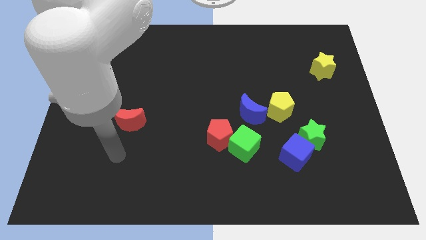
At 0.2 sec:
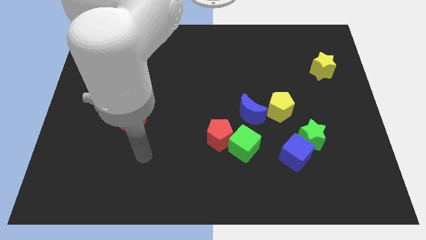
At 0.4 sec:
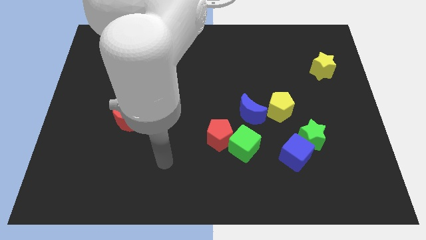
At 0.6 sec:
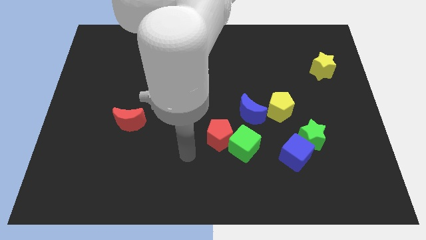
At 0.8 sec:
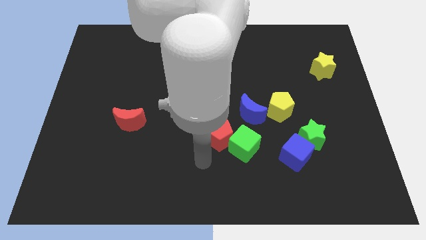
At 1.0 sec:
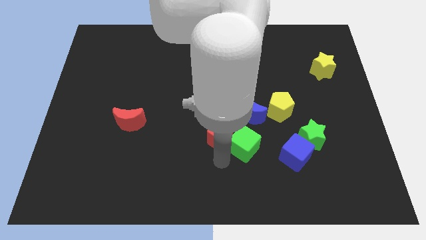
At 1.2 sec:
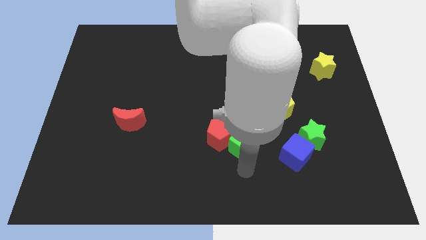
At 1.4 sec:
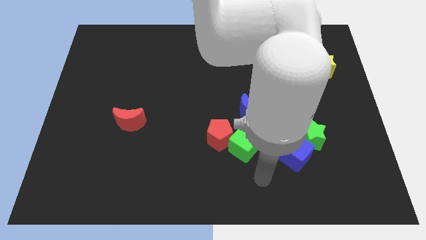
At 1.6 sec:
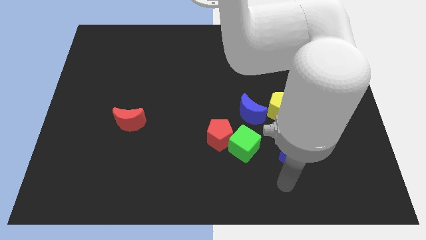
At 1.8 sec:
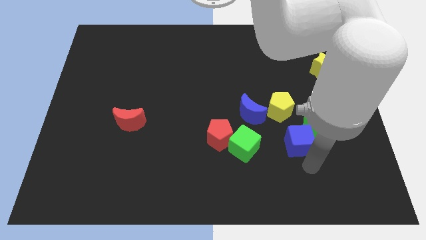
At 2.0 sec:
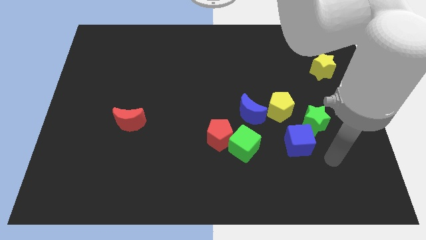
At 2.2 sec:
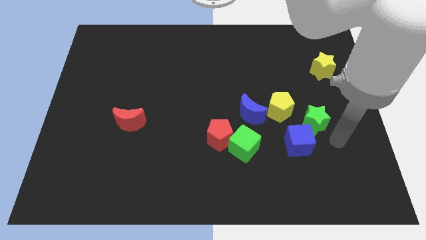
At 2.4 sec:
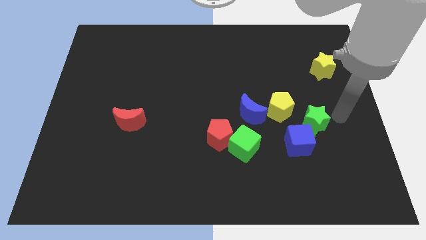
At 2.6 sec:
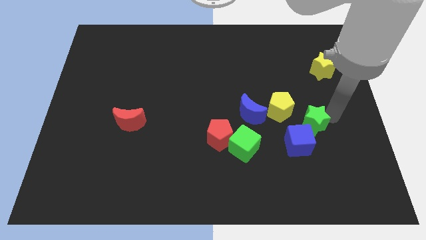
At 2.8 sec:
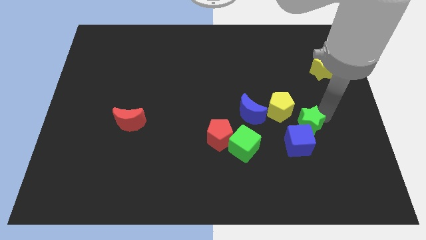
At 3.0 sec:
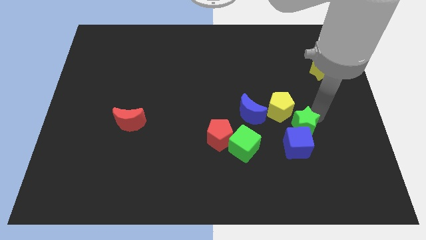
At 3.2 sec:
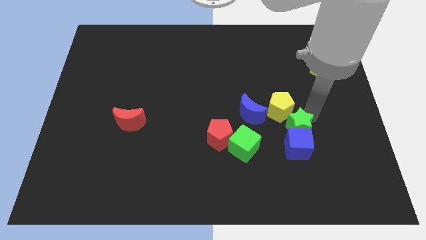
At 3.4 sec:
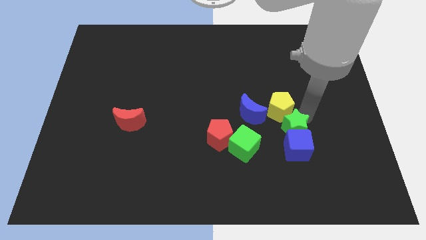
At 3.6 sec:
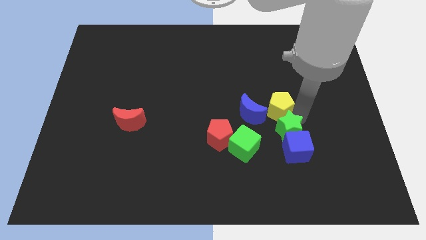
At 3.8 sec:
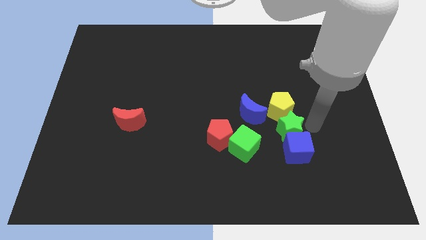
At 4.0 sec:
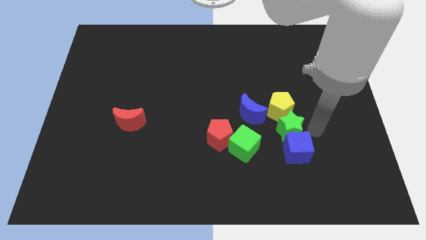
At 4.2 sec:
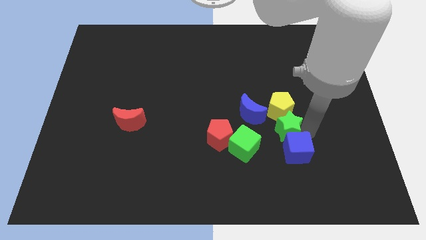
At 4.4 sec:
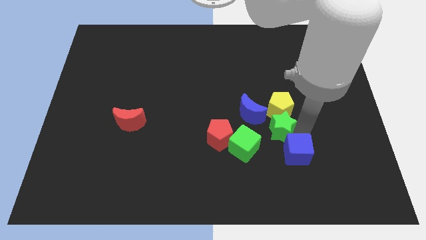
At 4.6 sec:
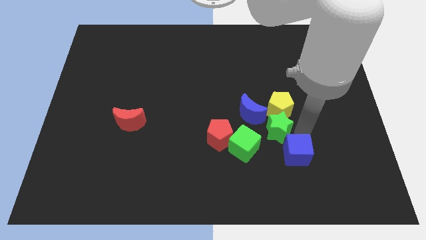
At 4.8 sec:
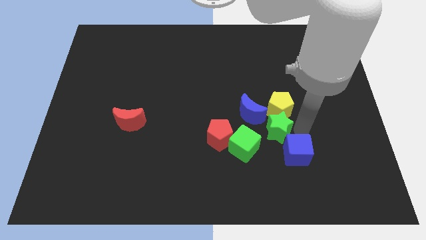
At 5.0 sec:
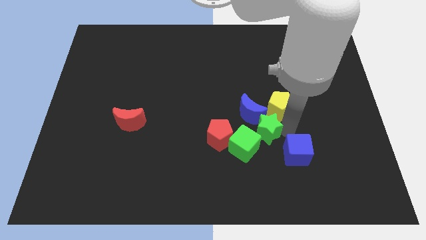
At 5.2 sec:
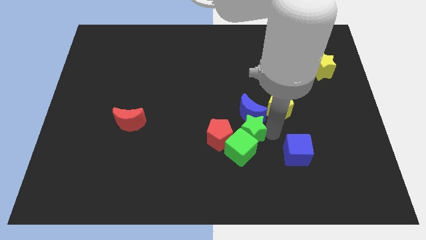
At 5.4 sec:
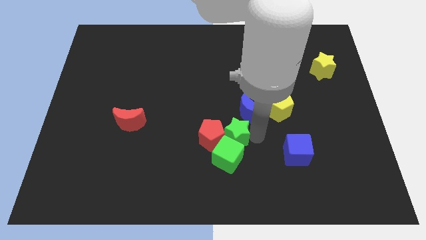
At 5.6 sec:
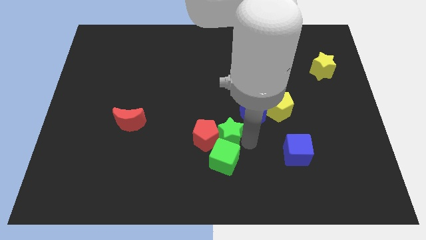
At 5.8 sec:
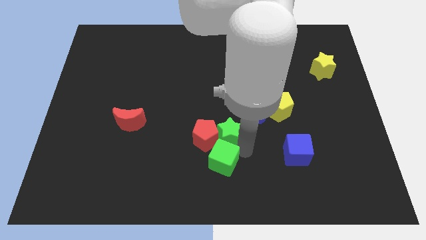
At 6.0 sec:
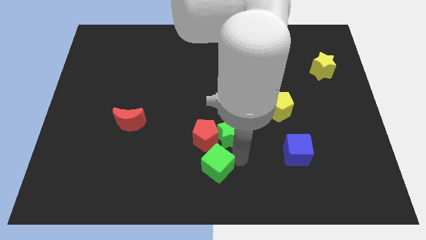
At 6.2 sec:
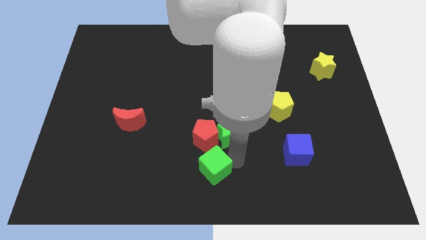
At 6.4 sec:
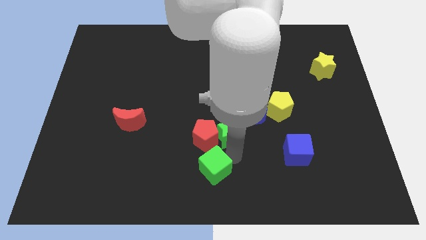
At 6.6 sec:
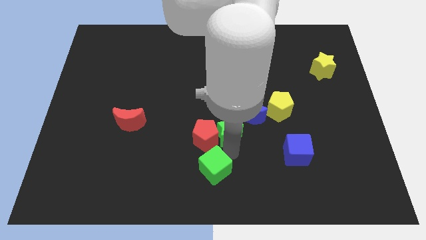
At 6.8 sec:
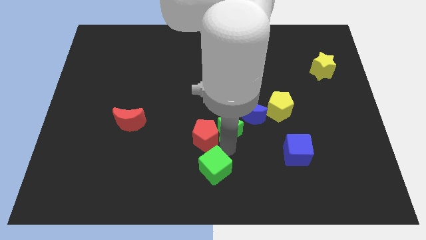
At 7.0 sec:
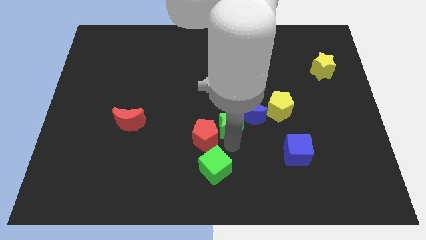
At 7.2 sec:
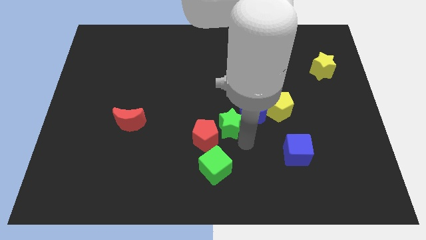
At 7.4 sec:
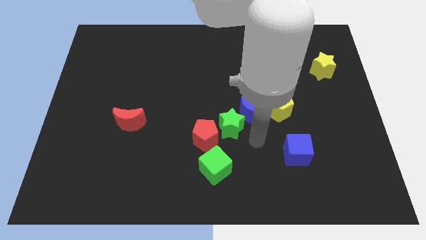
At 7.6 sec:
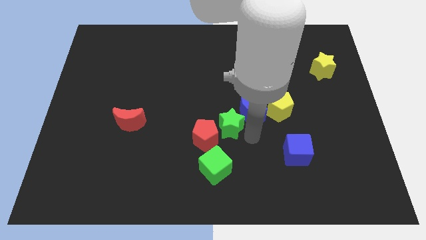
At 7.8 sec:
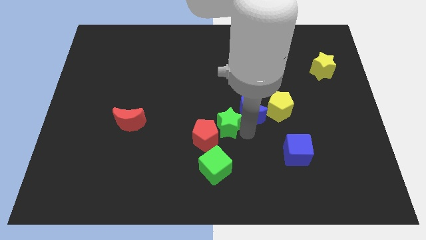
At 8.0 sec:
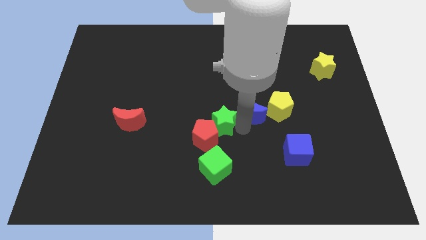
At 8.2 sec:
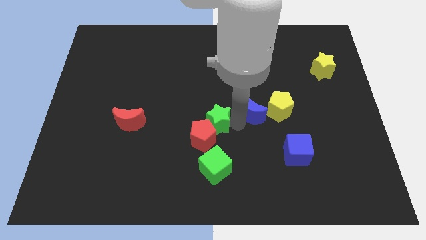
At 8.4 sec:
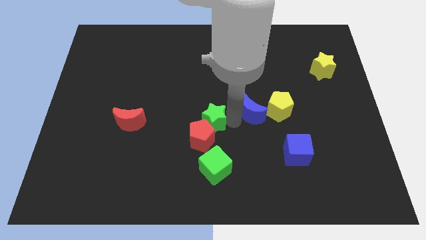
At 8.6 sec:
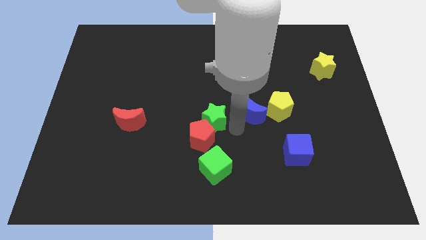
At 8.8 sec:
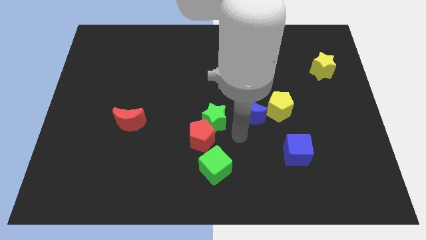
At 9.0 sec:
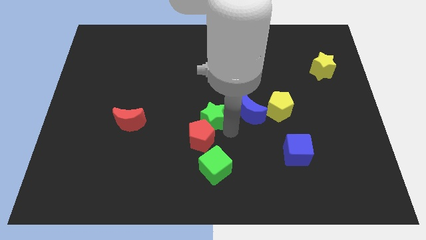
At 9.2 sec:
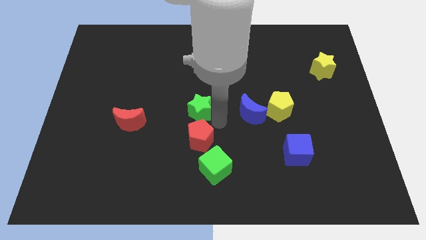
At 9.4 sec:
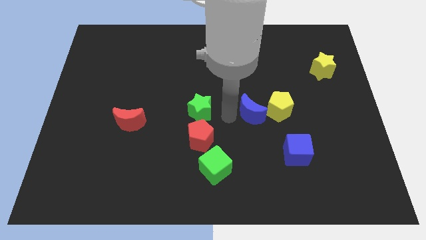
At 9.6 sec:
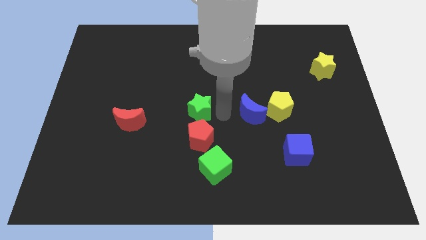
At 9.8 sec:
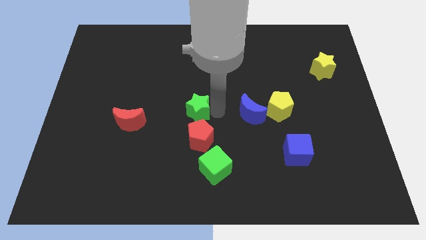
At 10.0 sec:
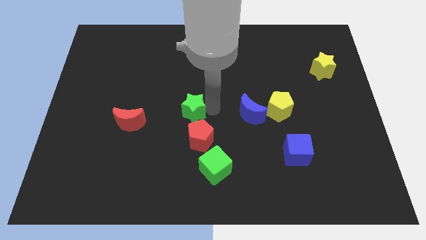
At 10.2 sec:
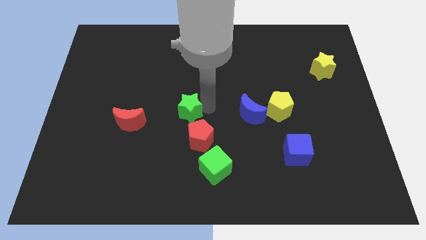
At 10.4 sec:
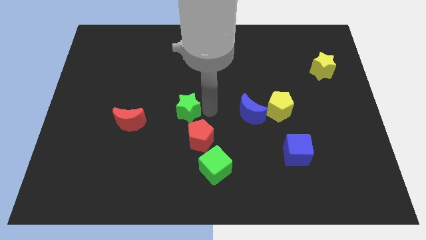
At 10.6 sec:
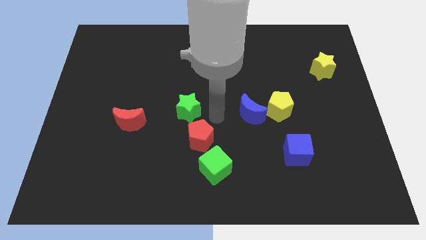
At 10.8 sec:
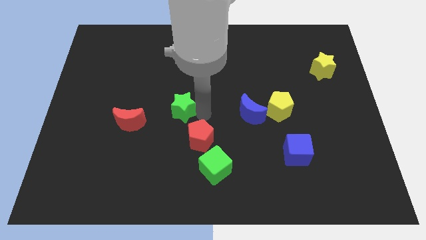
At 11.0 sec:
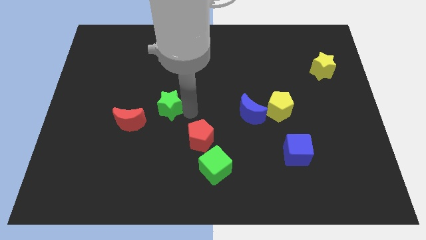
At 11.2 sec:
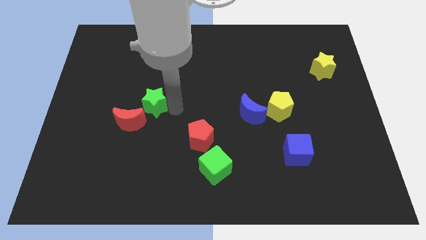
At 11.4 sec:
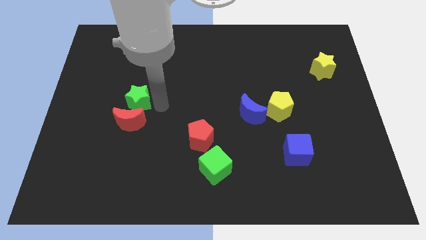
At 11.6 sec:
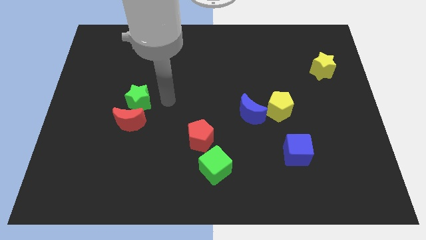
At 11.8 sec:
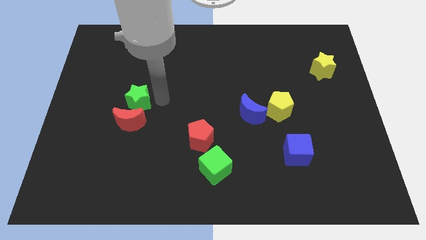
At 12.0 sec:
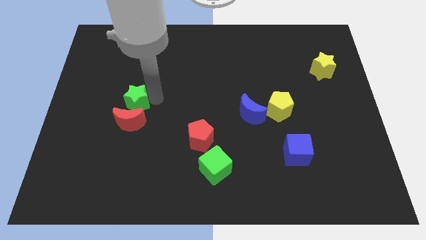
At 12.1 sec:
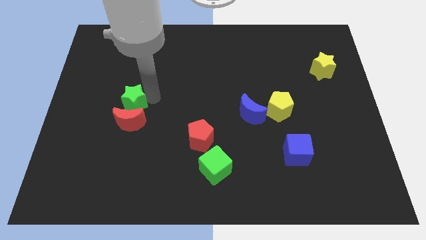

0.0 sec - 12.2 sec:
put the green star to the top left of the red moon

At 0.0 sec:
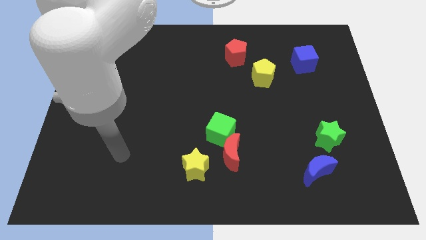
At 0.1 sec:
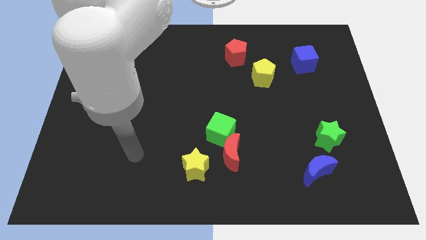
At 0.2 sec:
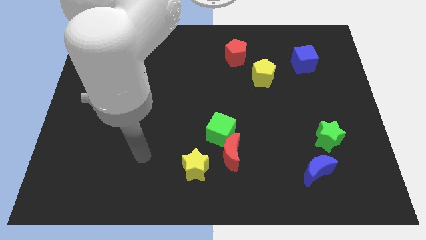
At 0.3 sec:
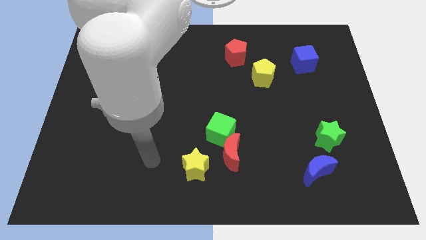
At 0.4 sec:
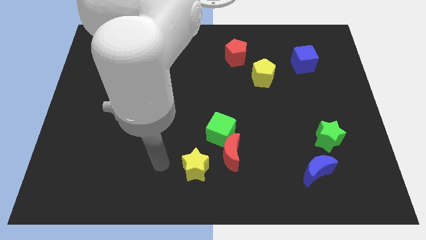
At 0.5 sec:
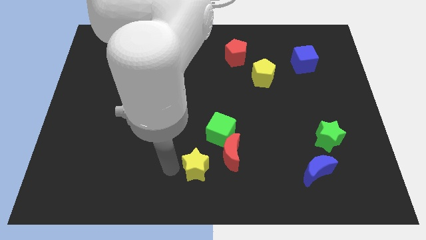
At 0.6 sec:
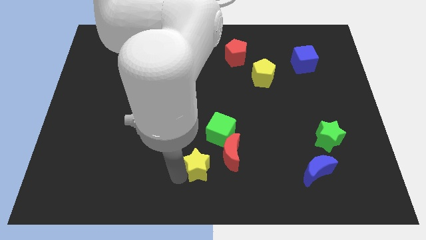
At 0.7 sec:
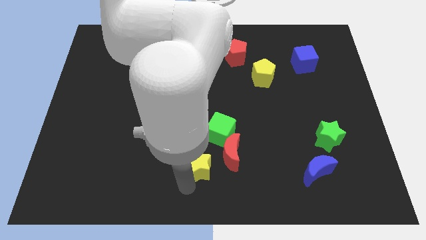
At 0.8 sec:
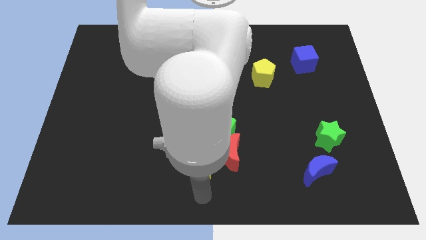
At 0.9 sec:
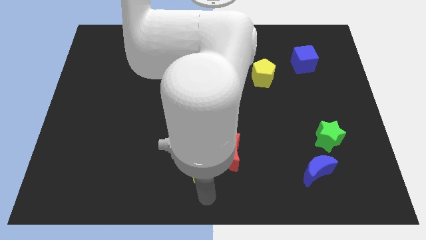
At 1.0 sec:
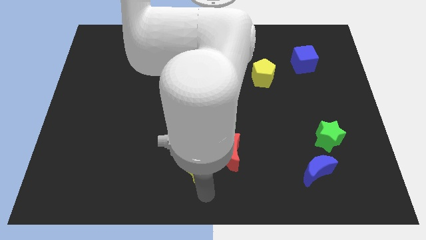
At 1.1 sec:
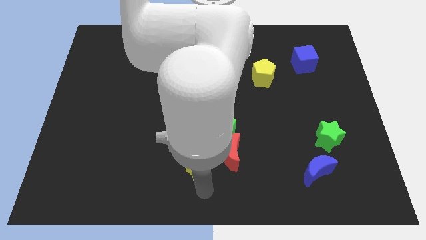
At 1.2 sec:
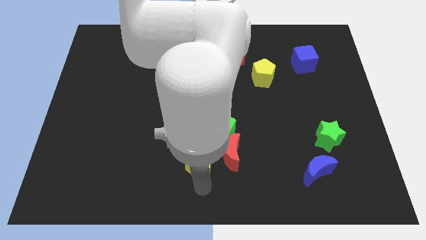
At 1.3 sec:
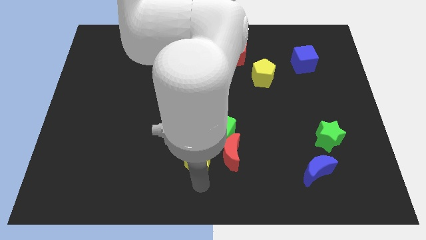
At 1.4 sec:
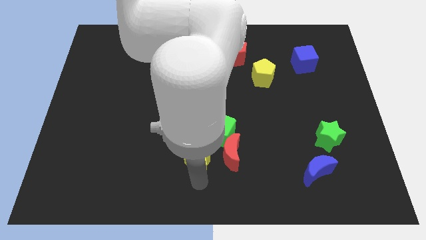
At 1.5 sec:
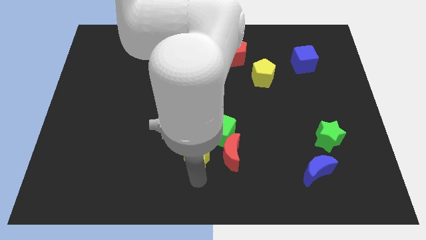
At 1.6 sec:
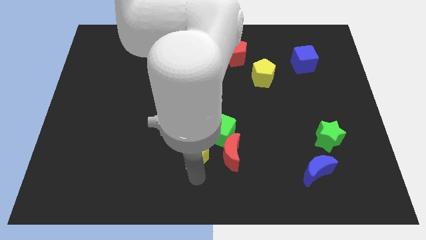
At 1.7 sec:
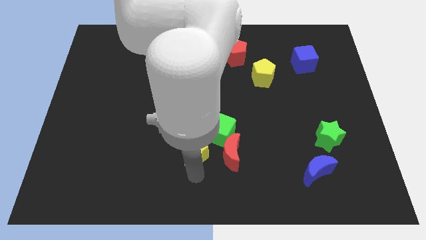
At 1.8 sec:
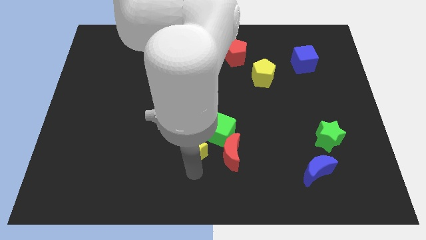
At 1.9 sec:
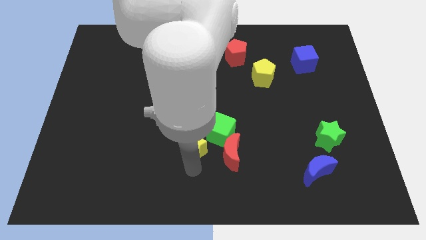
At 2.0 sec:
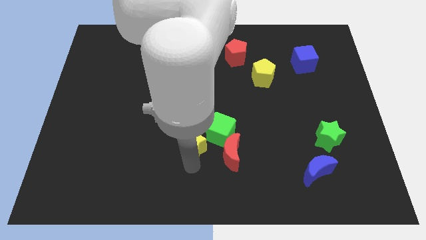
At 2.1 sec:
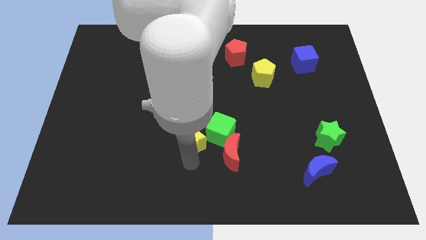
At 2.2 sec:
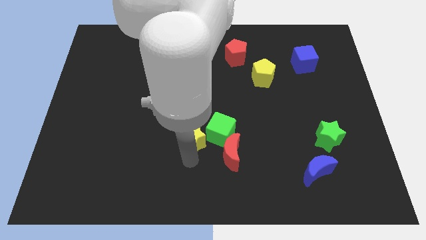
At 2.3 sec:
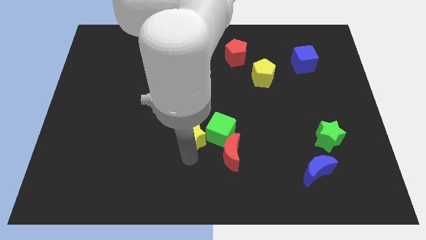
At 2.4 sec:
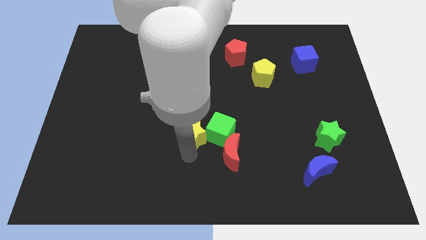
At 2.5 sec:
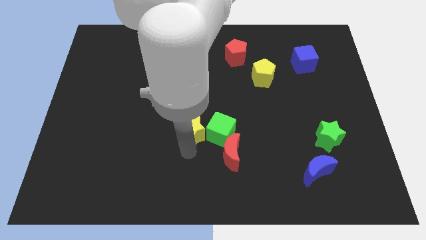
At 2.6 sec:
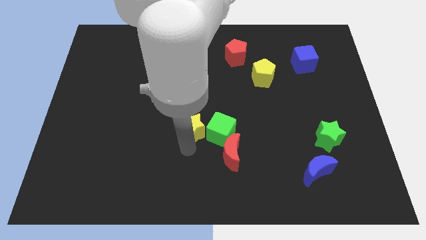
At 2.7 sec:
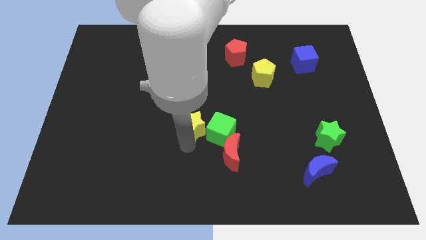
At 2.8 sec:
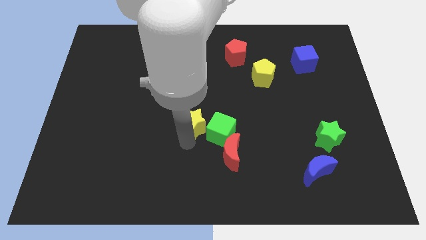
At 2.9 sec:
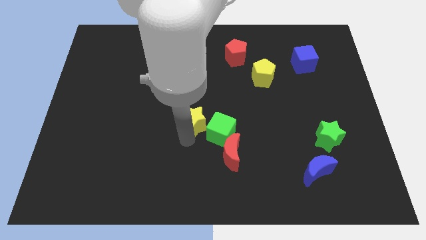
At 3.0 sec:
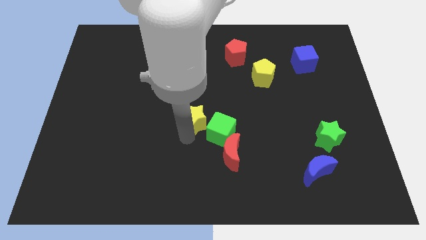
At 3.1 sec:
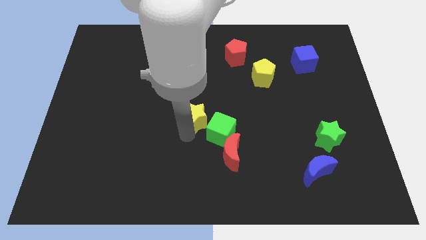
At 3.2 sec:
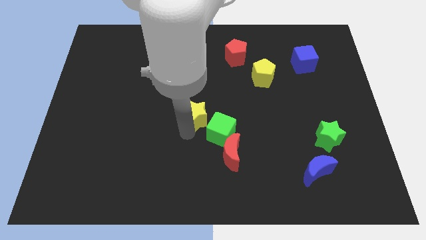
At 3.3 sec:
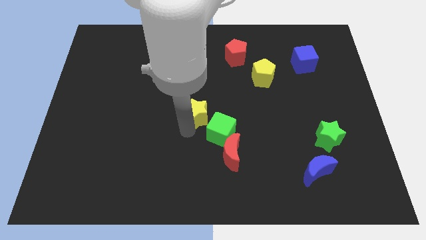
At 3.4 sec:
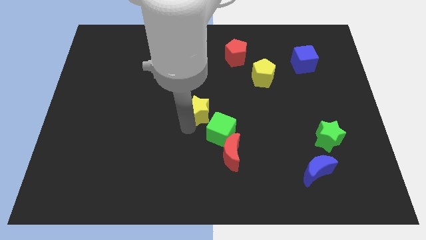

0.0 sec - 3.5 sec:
put the yellow star above the green cube
